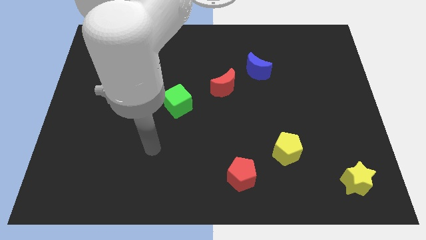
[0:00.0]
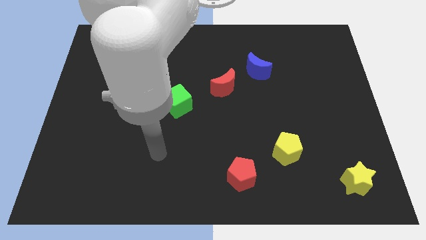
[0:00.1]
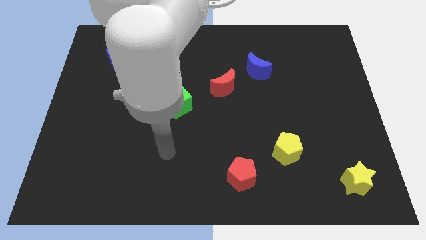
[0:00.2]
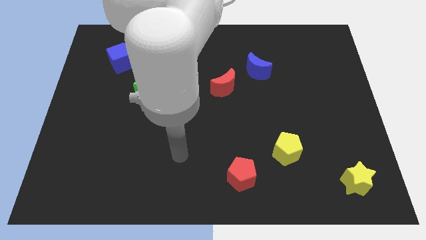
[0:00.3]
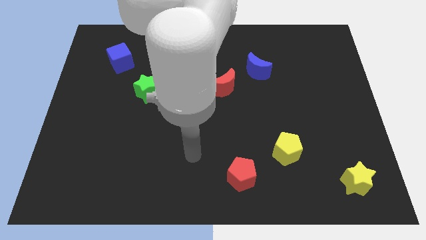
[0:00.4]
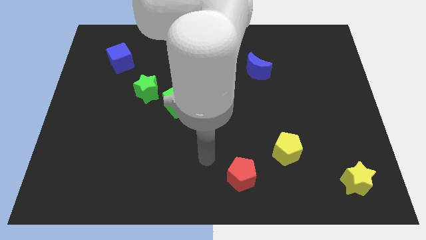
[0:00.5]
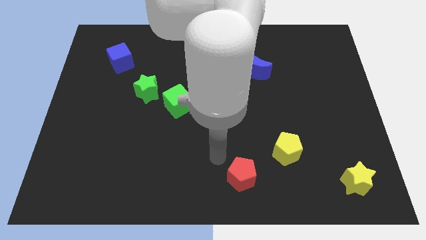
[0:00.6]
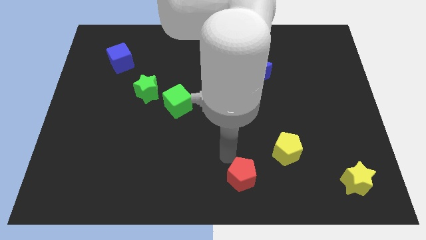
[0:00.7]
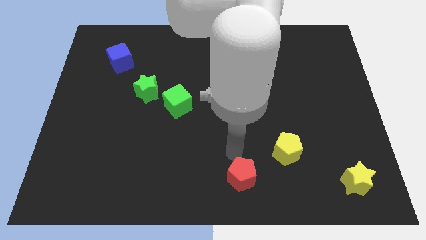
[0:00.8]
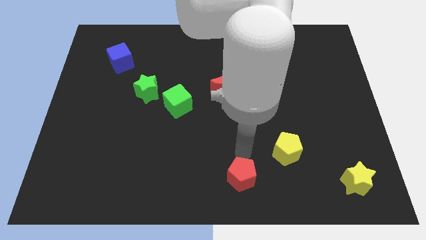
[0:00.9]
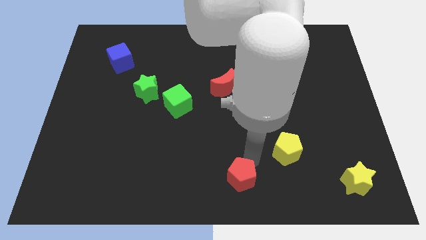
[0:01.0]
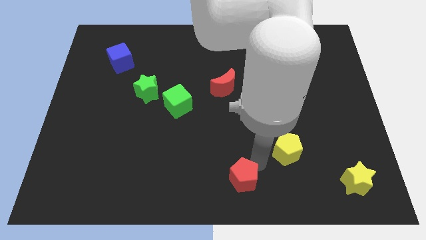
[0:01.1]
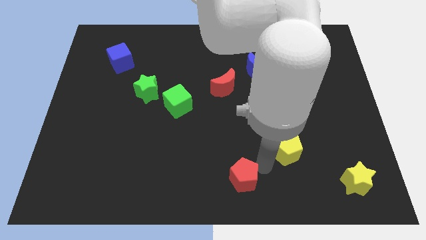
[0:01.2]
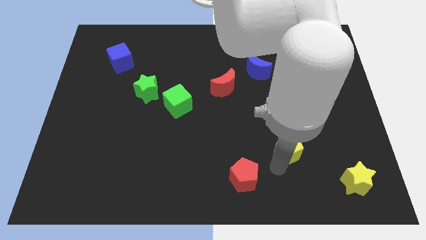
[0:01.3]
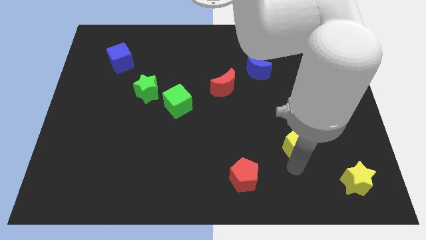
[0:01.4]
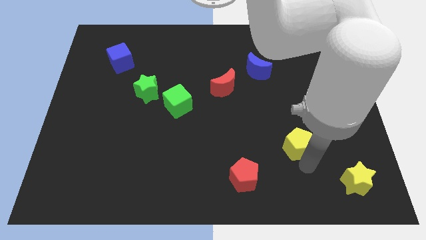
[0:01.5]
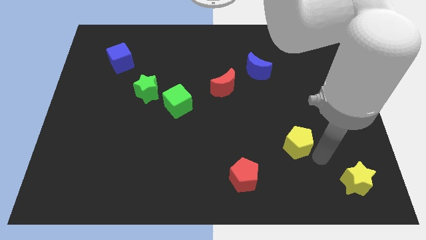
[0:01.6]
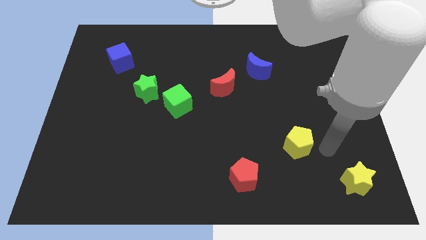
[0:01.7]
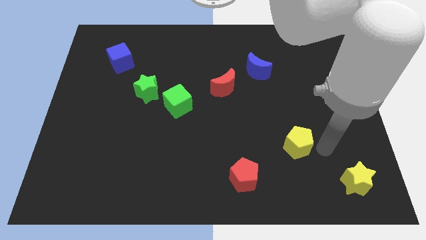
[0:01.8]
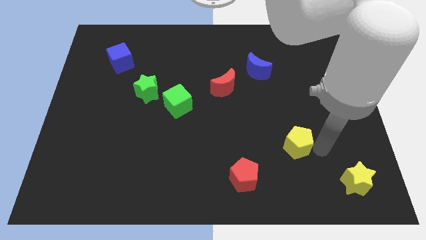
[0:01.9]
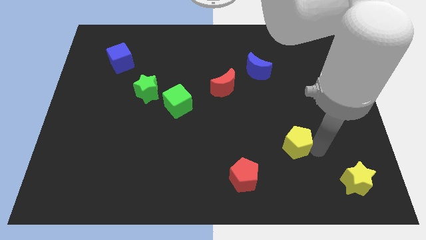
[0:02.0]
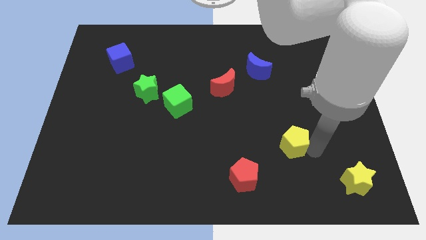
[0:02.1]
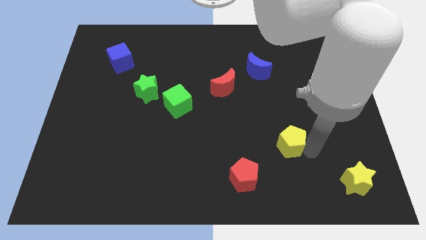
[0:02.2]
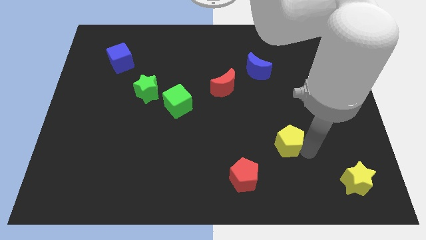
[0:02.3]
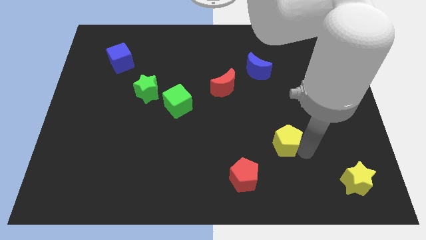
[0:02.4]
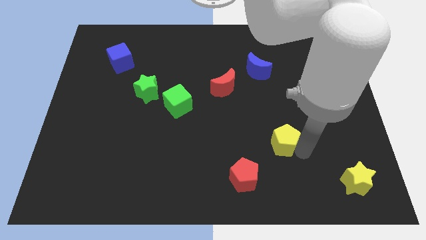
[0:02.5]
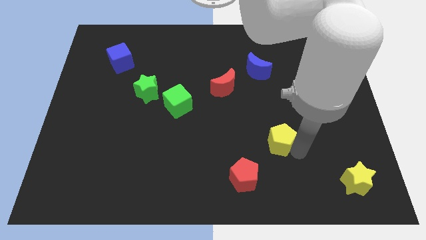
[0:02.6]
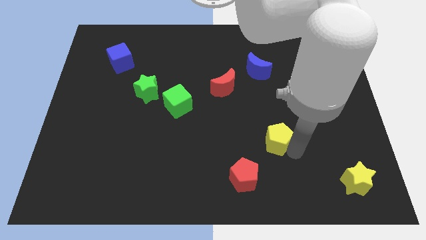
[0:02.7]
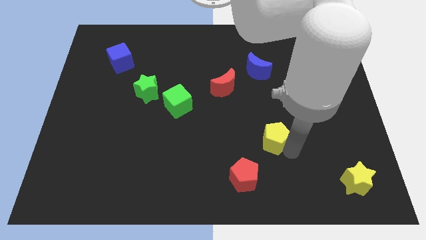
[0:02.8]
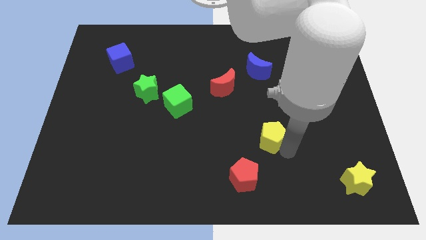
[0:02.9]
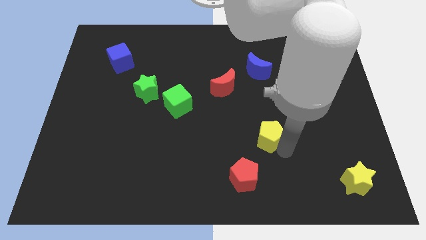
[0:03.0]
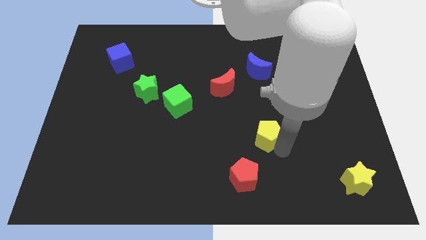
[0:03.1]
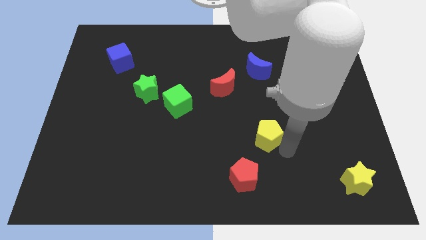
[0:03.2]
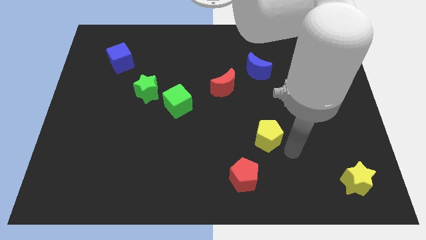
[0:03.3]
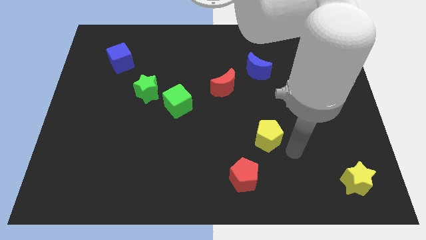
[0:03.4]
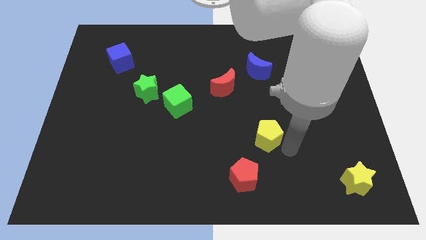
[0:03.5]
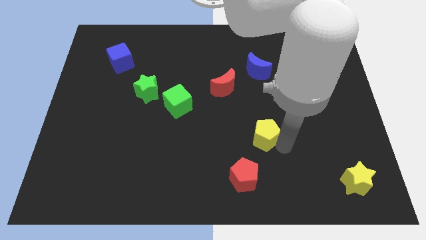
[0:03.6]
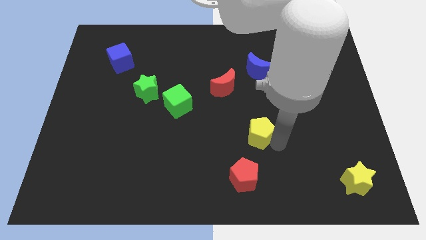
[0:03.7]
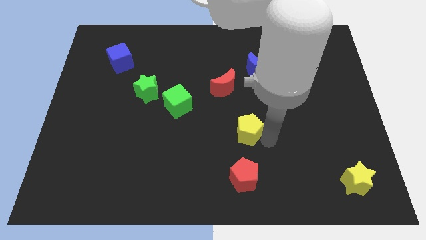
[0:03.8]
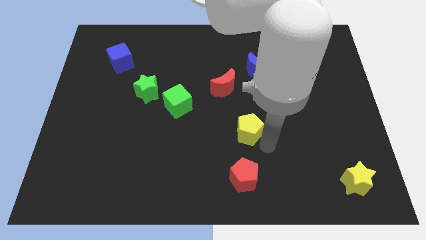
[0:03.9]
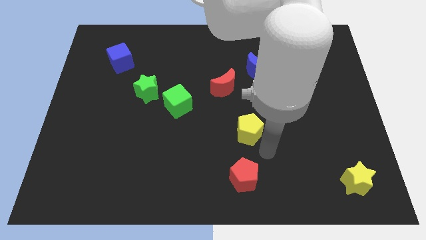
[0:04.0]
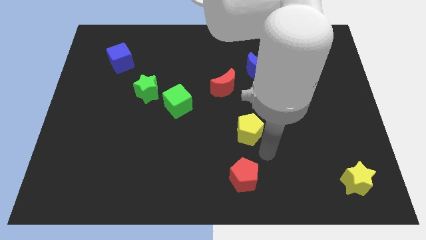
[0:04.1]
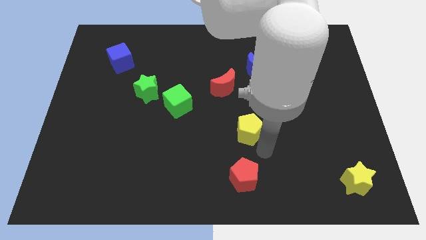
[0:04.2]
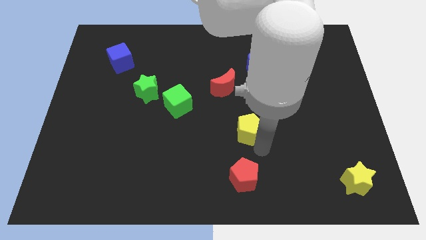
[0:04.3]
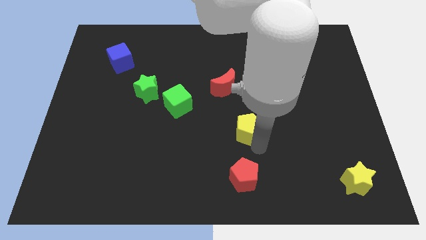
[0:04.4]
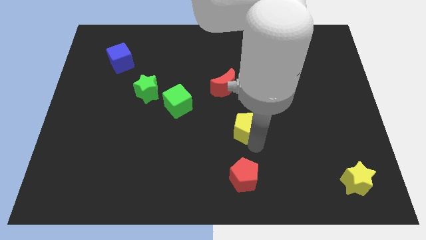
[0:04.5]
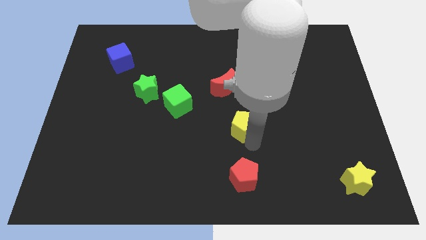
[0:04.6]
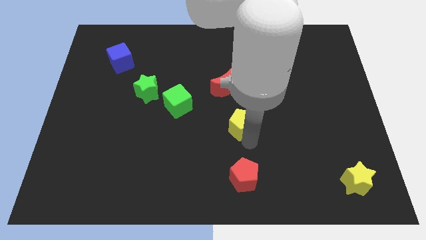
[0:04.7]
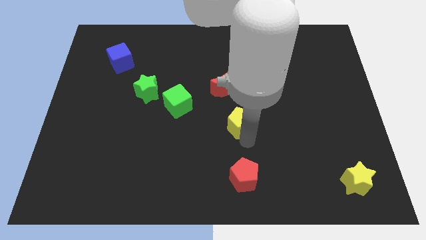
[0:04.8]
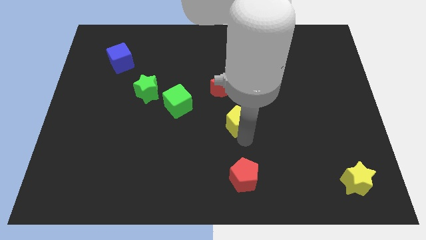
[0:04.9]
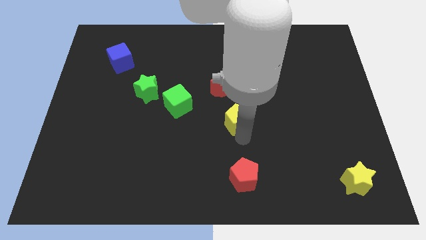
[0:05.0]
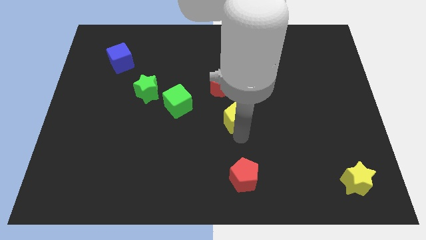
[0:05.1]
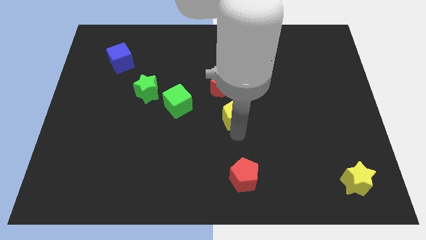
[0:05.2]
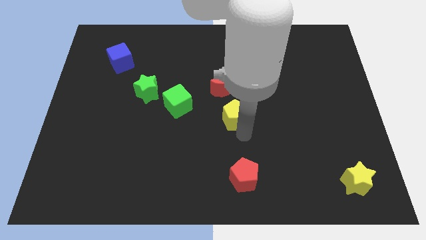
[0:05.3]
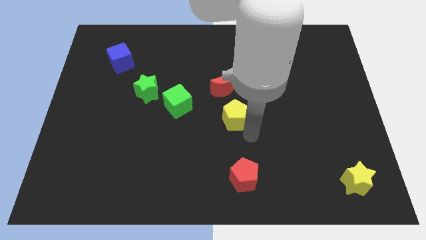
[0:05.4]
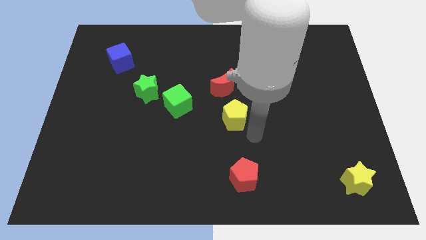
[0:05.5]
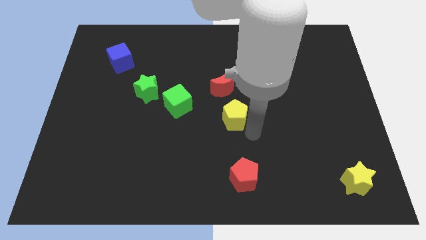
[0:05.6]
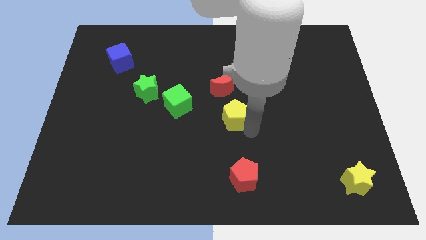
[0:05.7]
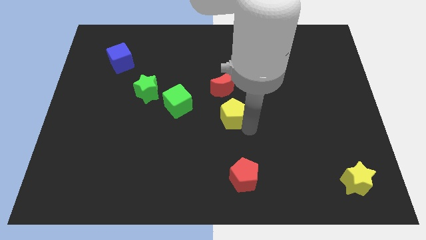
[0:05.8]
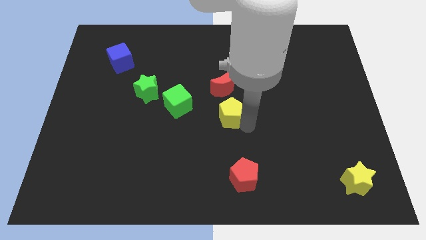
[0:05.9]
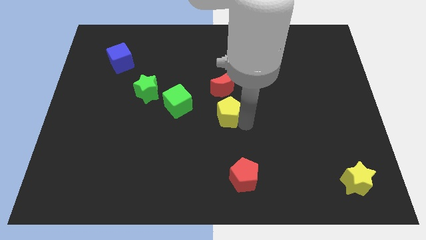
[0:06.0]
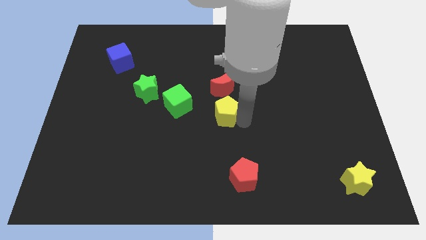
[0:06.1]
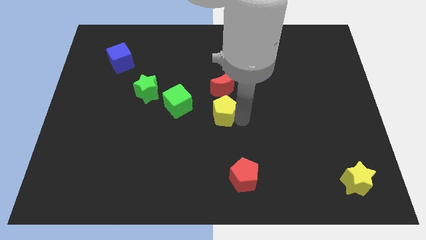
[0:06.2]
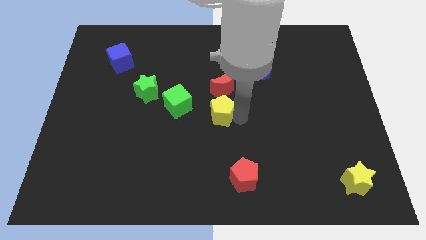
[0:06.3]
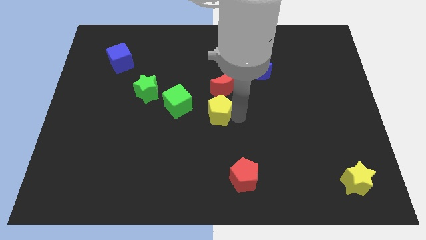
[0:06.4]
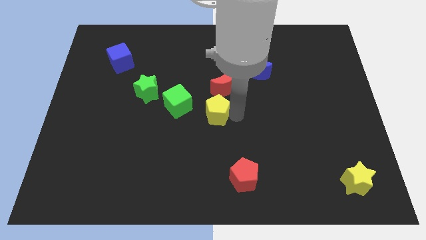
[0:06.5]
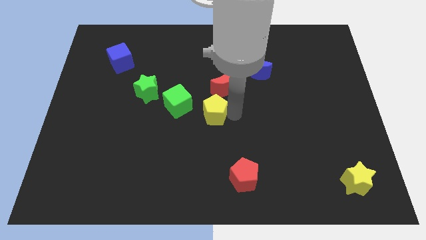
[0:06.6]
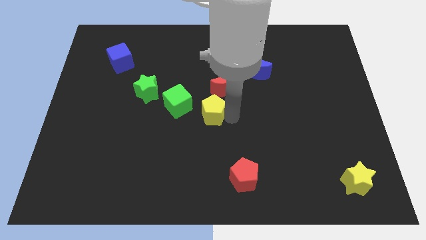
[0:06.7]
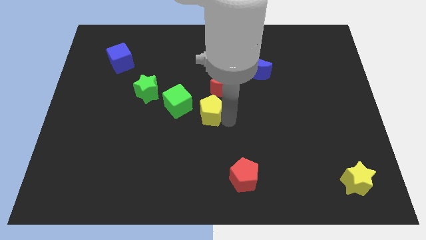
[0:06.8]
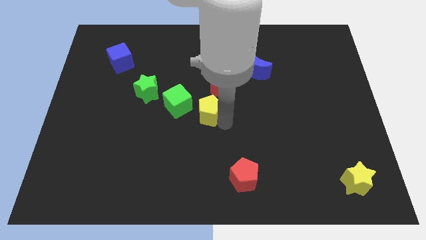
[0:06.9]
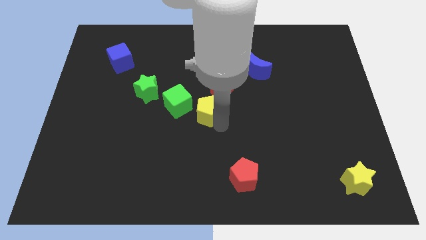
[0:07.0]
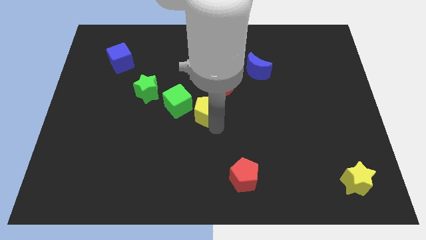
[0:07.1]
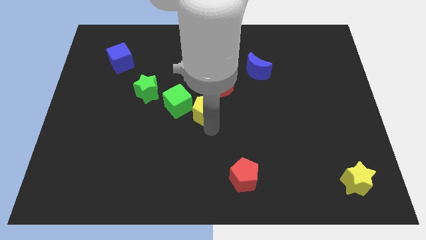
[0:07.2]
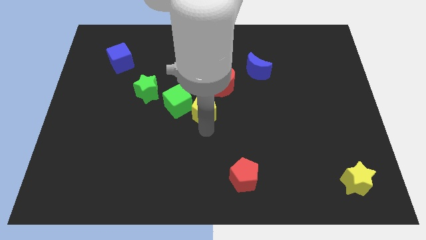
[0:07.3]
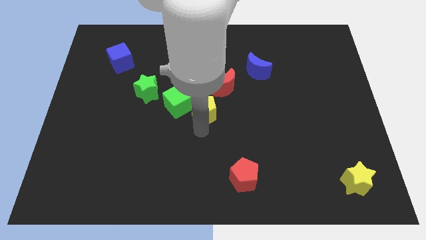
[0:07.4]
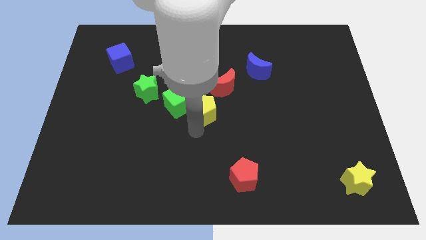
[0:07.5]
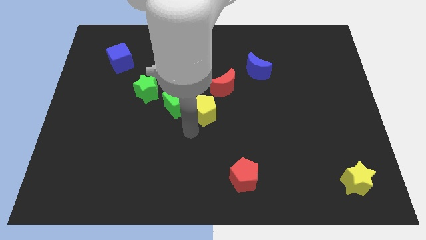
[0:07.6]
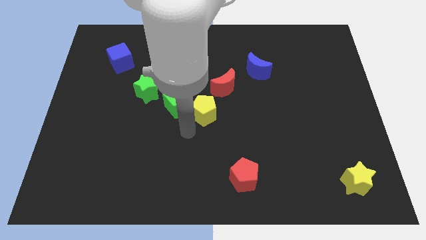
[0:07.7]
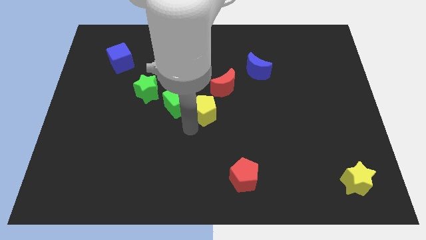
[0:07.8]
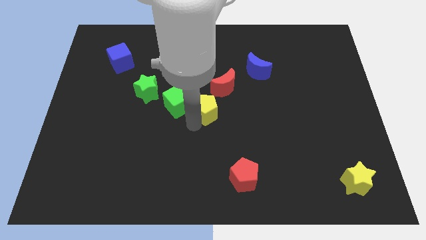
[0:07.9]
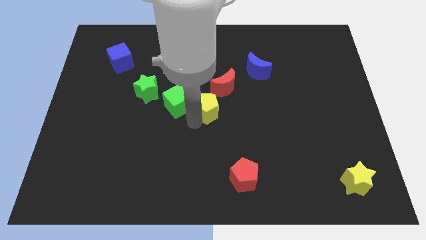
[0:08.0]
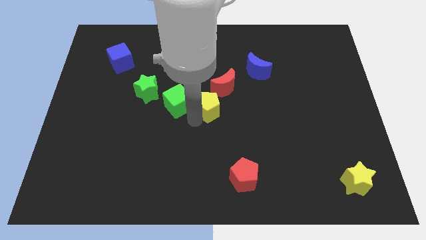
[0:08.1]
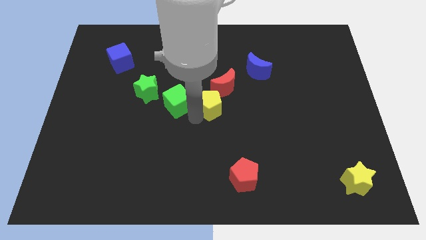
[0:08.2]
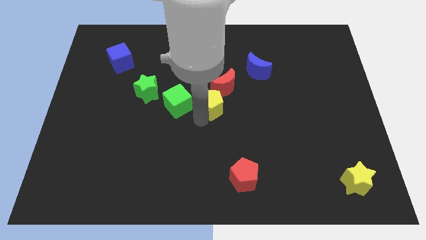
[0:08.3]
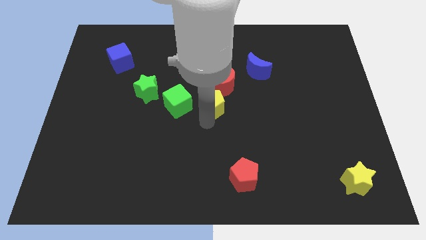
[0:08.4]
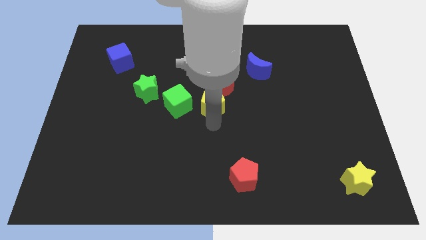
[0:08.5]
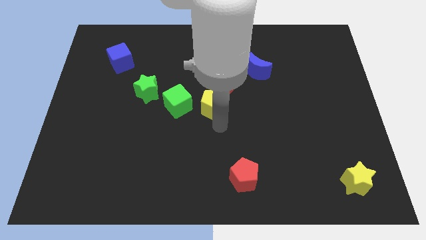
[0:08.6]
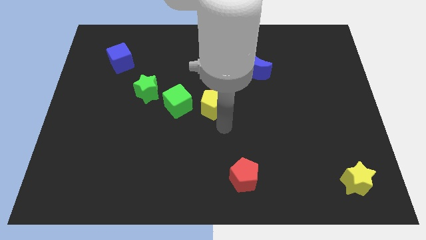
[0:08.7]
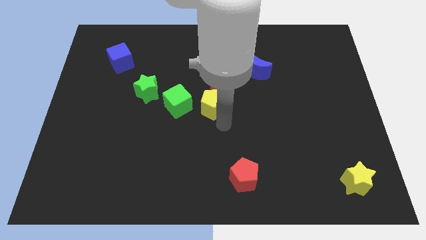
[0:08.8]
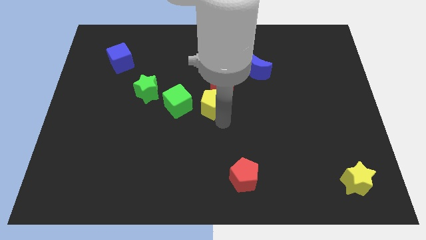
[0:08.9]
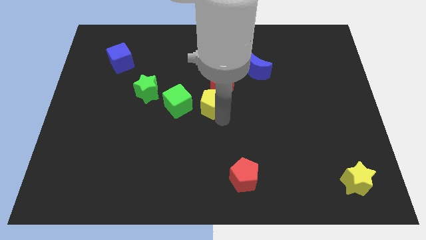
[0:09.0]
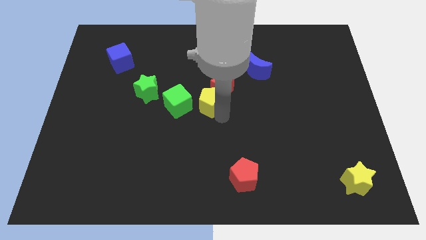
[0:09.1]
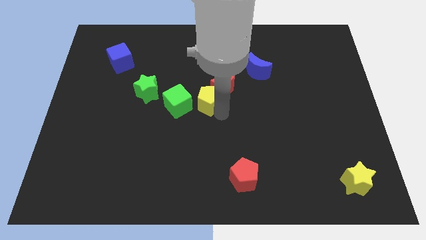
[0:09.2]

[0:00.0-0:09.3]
move the yellow pentagon diagonally up and to the right of the green cube
